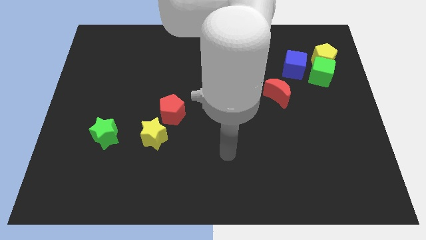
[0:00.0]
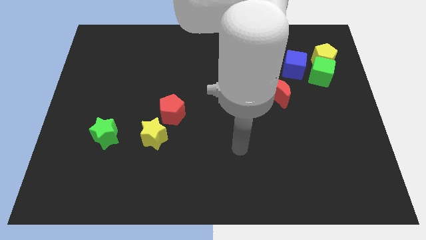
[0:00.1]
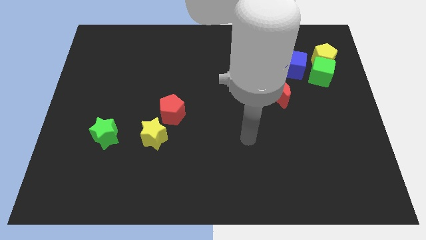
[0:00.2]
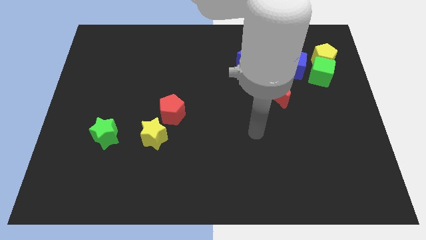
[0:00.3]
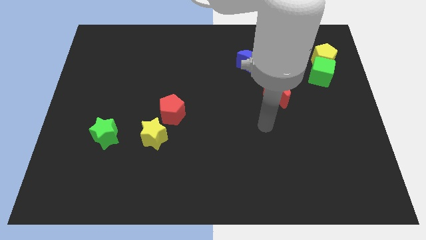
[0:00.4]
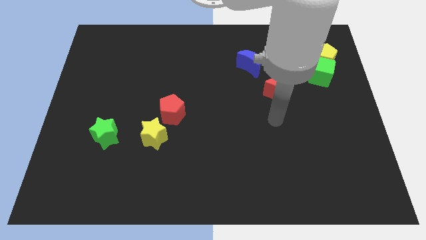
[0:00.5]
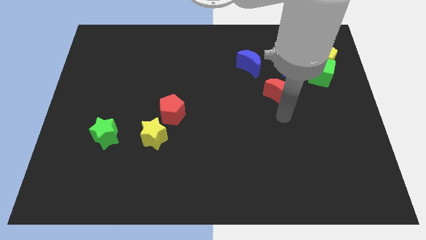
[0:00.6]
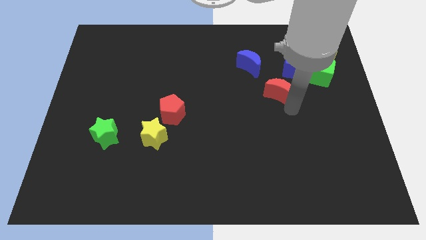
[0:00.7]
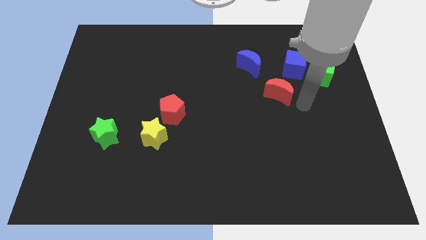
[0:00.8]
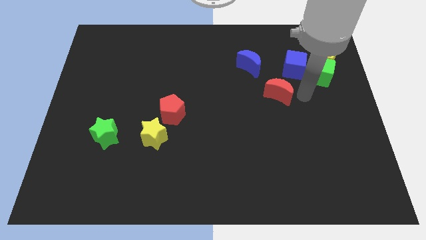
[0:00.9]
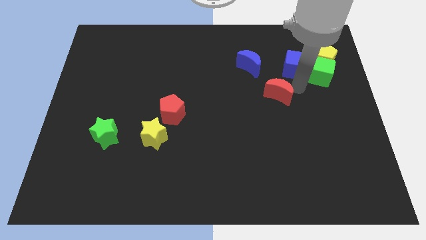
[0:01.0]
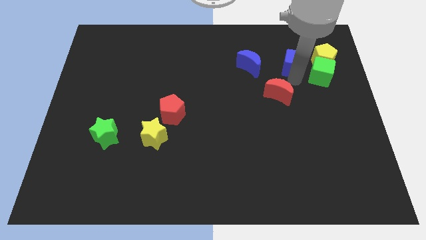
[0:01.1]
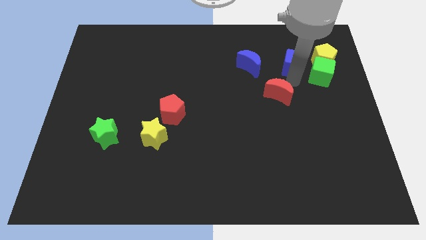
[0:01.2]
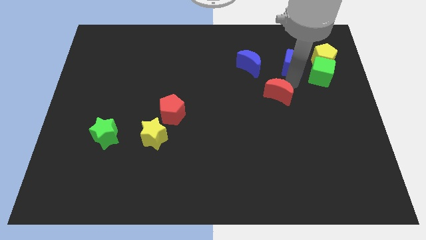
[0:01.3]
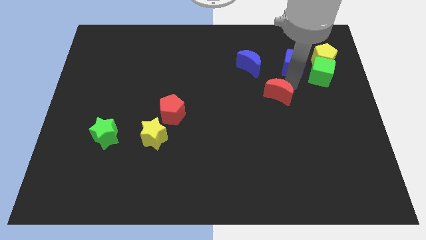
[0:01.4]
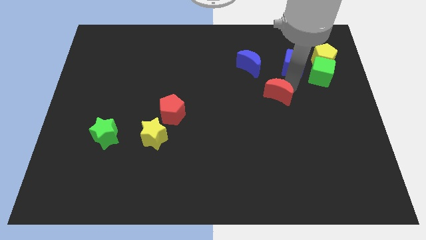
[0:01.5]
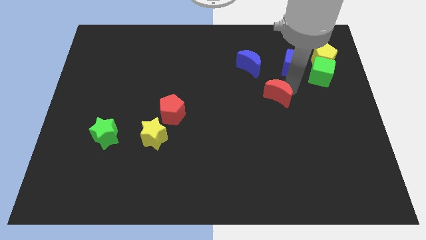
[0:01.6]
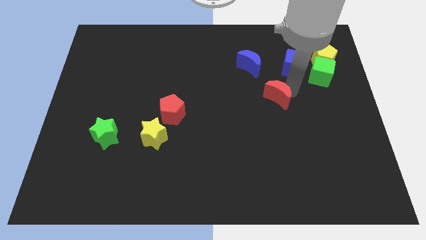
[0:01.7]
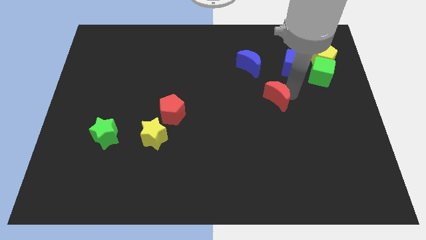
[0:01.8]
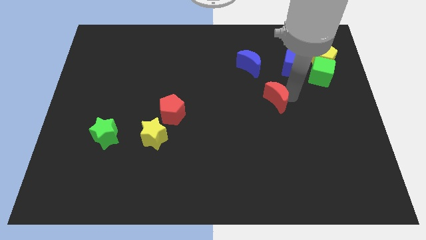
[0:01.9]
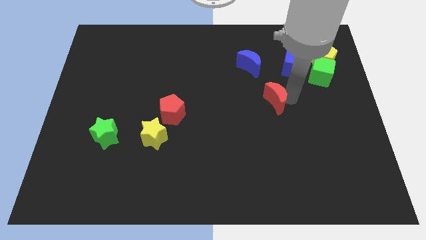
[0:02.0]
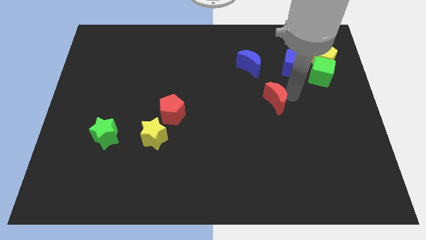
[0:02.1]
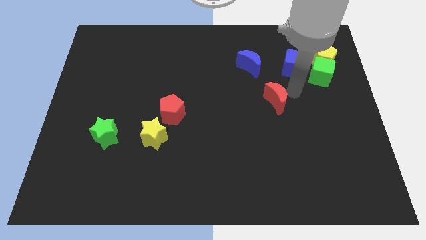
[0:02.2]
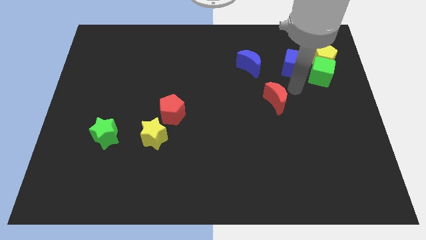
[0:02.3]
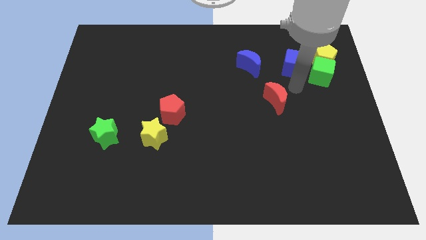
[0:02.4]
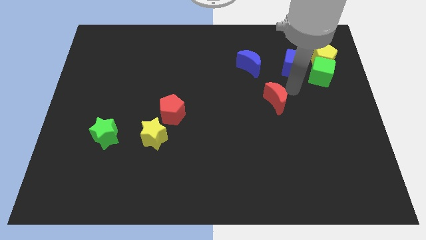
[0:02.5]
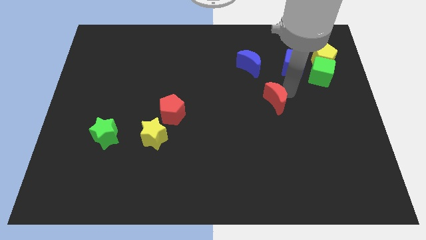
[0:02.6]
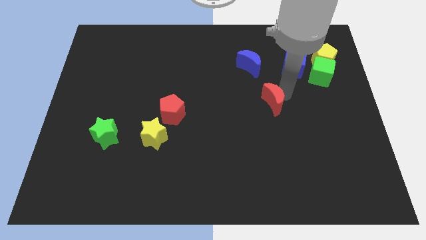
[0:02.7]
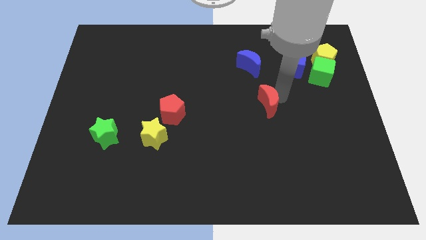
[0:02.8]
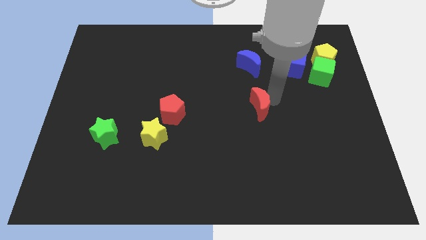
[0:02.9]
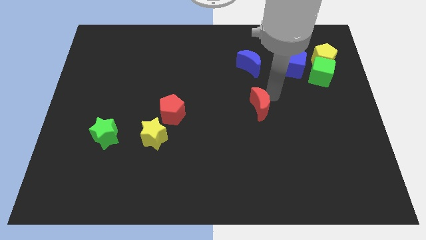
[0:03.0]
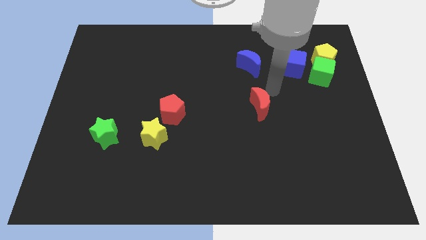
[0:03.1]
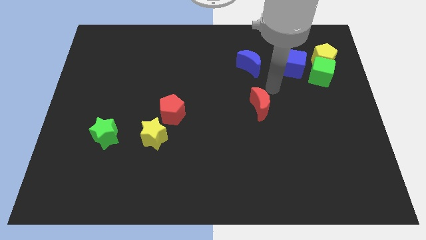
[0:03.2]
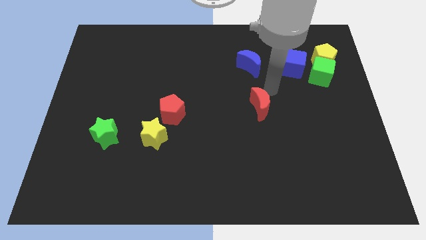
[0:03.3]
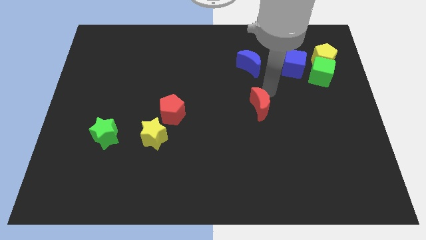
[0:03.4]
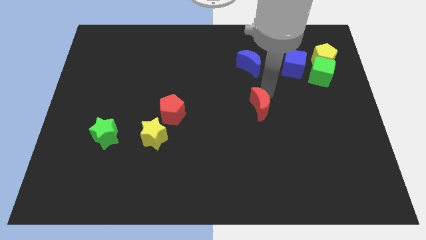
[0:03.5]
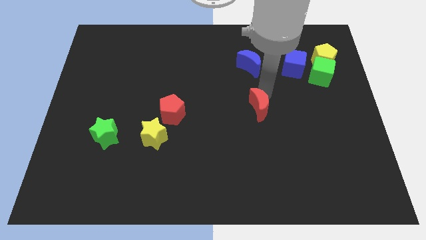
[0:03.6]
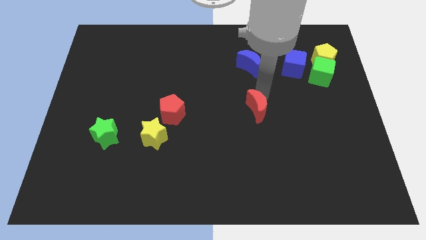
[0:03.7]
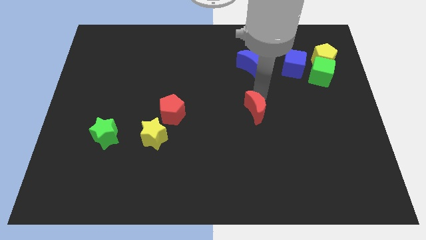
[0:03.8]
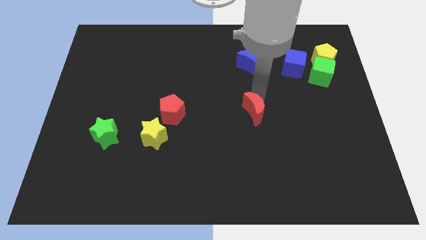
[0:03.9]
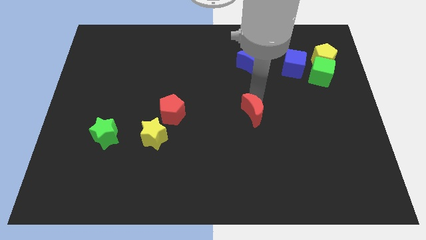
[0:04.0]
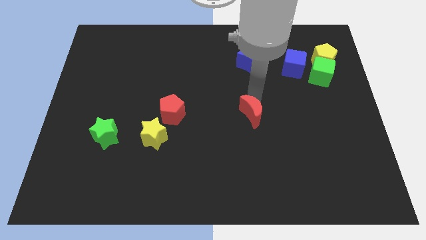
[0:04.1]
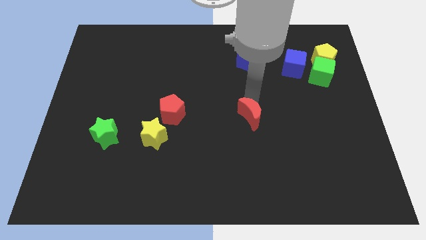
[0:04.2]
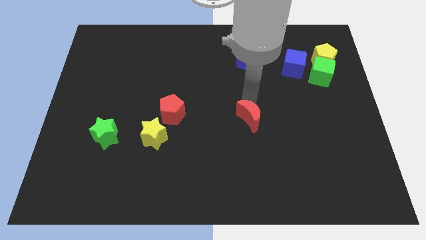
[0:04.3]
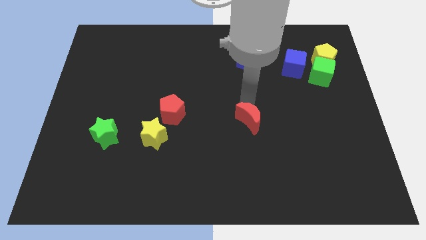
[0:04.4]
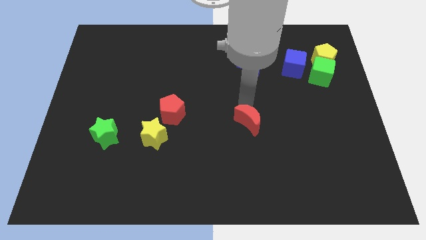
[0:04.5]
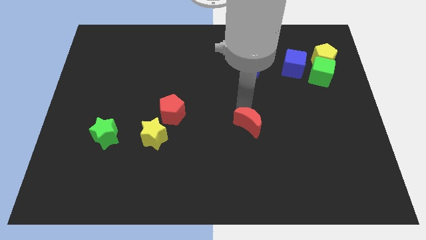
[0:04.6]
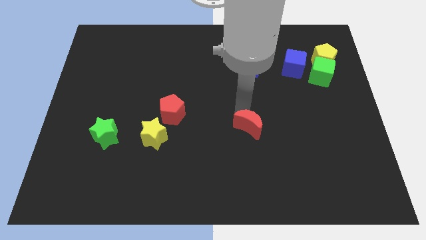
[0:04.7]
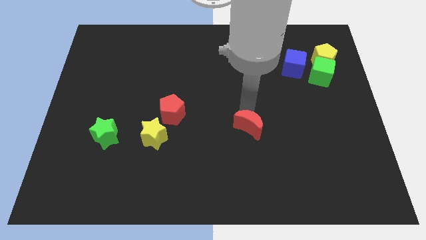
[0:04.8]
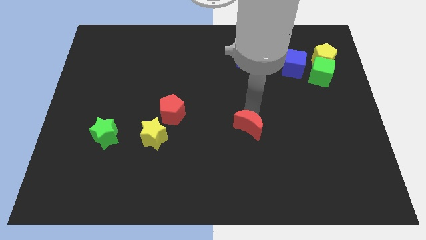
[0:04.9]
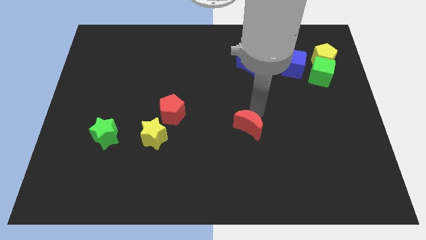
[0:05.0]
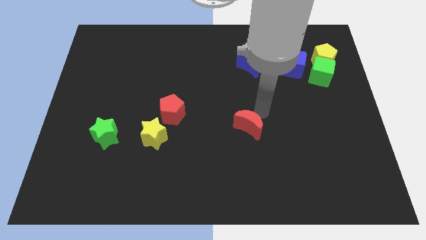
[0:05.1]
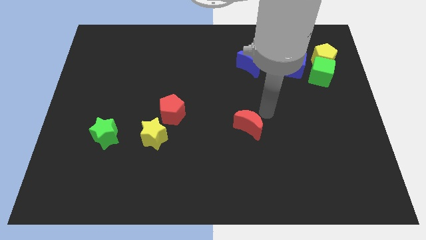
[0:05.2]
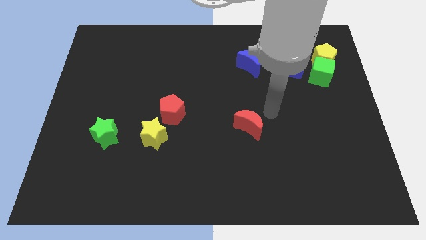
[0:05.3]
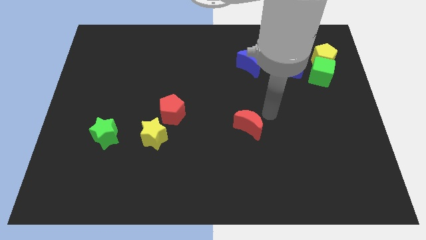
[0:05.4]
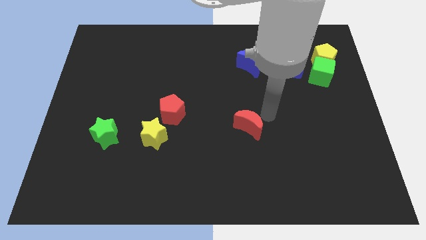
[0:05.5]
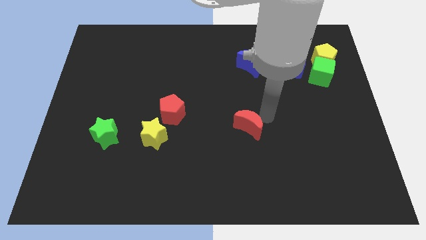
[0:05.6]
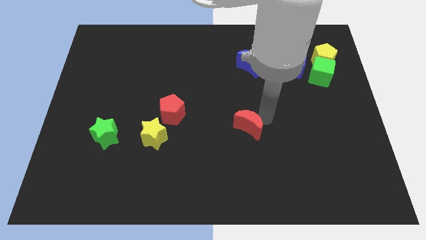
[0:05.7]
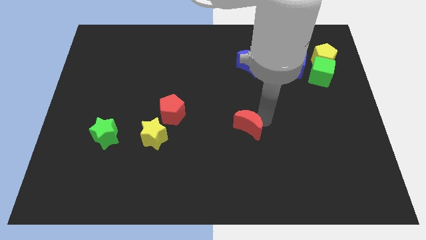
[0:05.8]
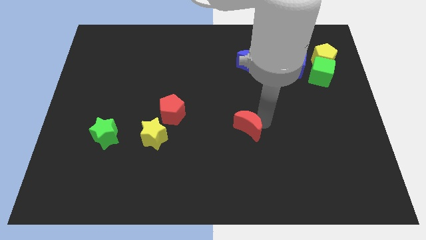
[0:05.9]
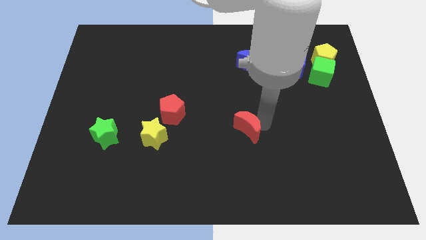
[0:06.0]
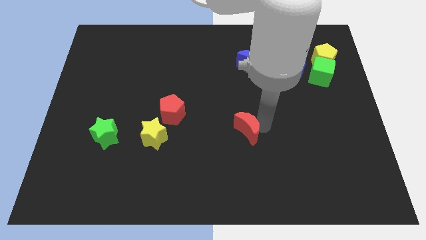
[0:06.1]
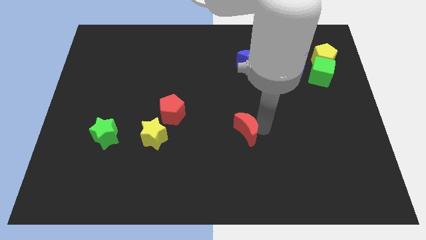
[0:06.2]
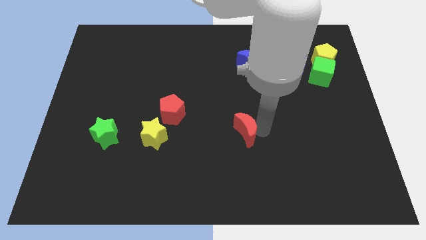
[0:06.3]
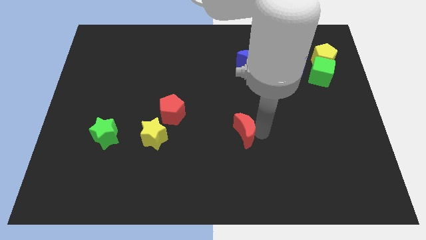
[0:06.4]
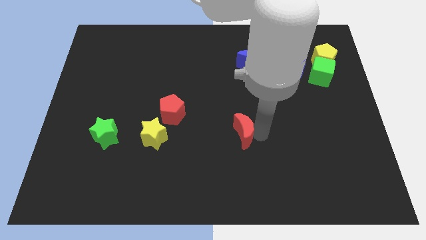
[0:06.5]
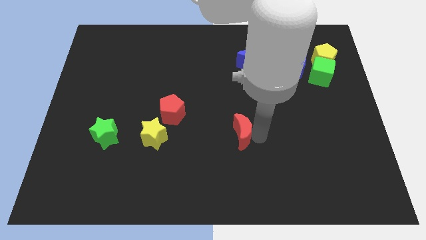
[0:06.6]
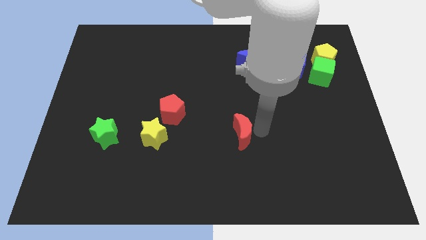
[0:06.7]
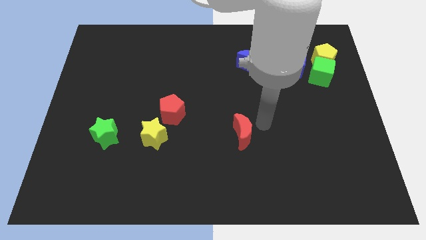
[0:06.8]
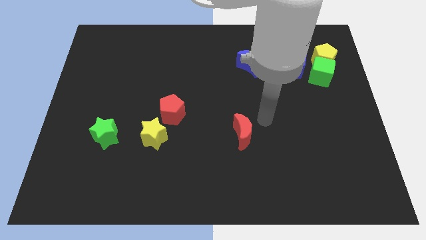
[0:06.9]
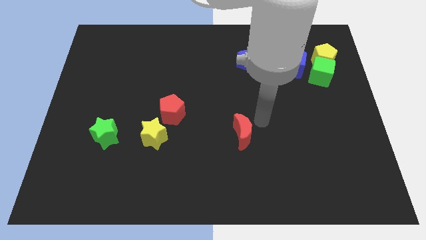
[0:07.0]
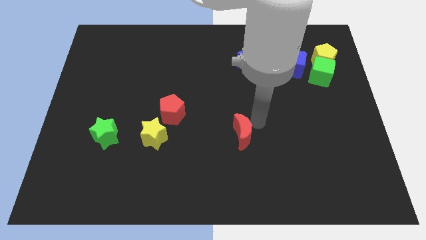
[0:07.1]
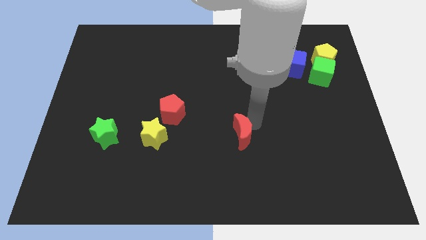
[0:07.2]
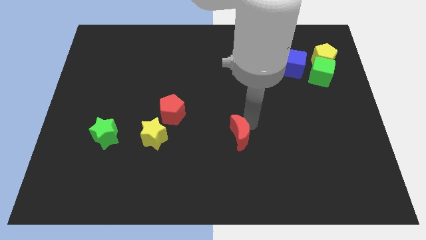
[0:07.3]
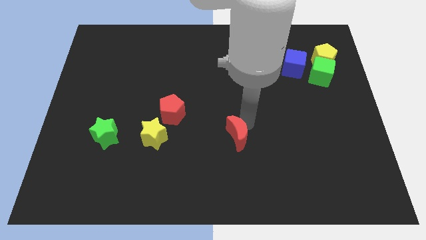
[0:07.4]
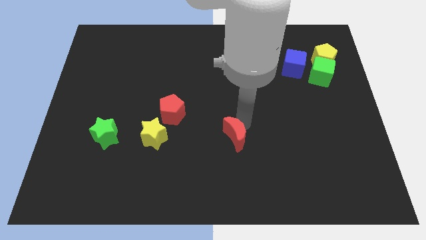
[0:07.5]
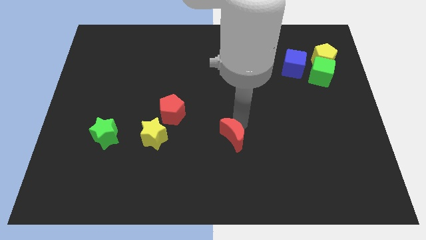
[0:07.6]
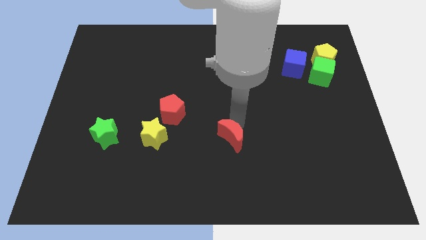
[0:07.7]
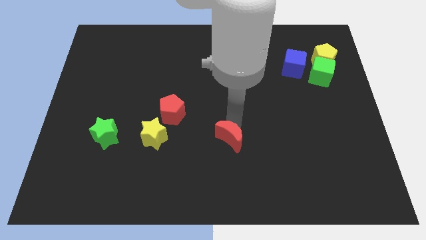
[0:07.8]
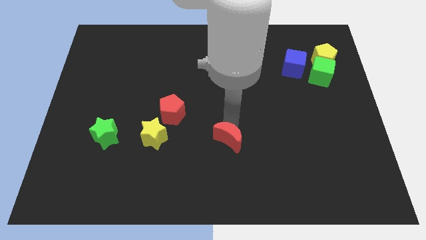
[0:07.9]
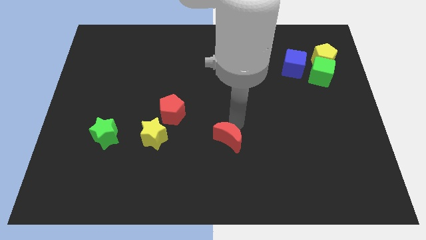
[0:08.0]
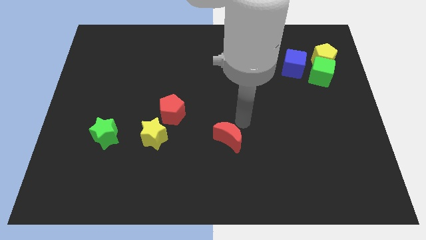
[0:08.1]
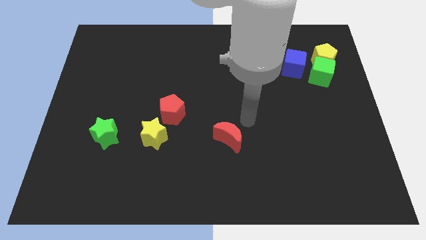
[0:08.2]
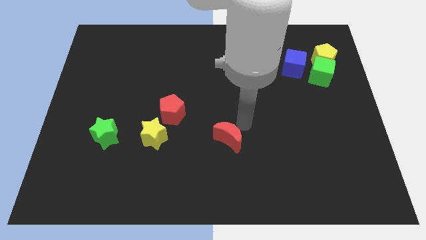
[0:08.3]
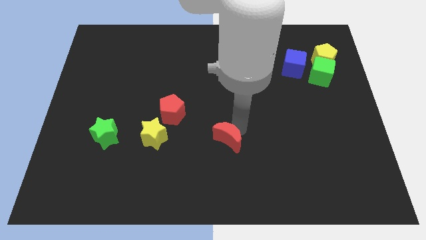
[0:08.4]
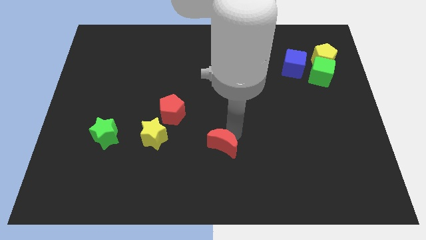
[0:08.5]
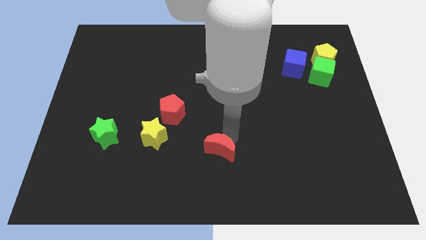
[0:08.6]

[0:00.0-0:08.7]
push the red moon down and then to the left
